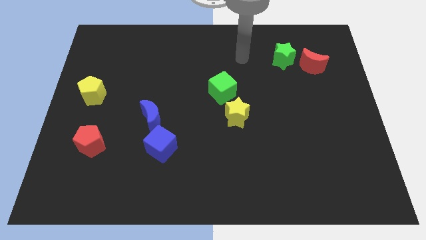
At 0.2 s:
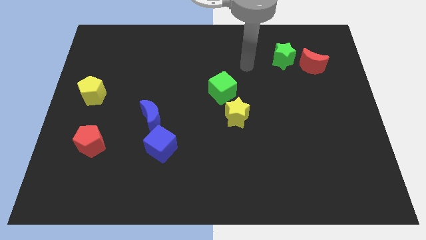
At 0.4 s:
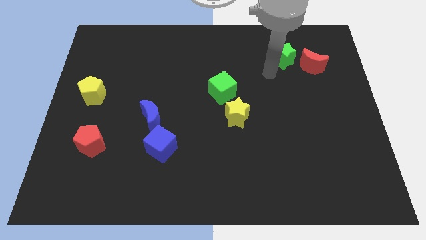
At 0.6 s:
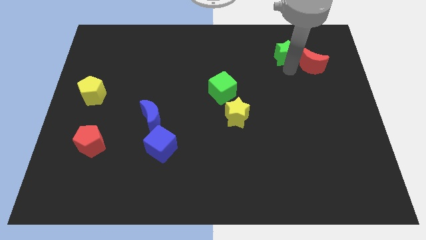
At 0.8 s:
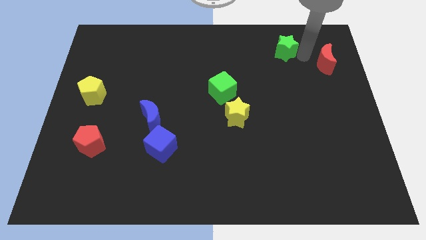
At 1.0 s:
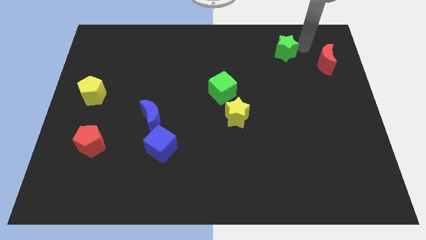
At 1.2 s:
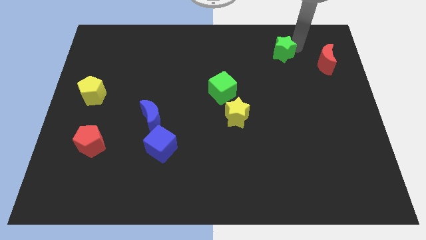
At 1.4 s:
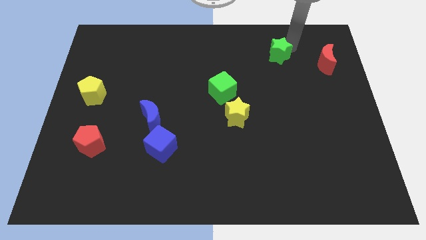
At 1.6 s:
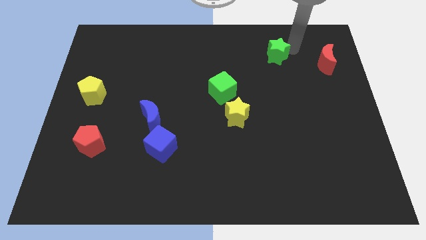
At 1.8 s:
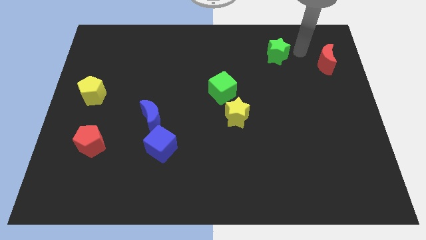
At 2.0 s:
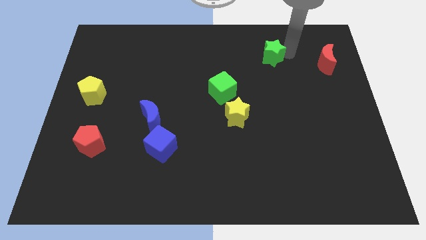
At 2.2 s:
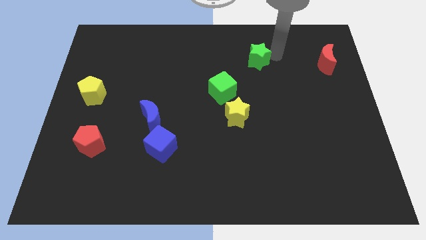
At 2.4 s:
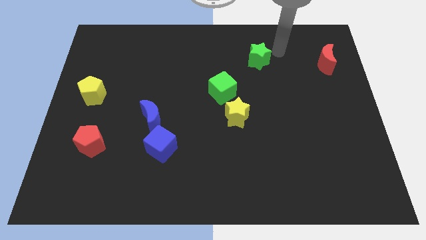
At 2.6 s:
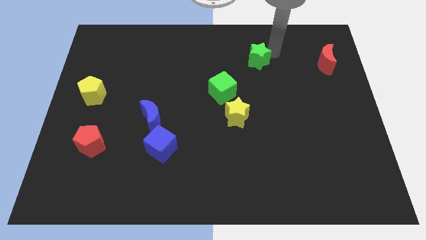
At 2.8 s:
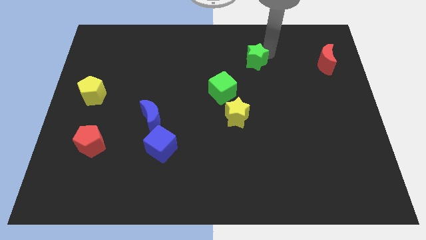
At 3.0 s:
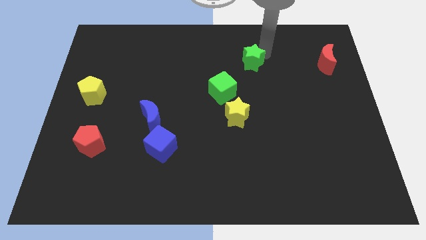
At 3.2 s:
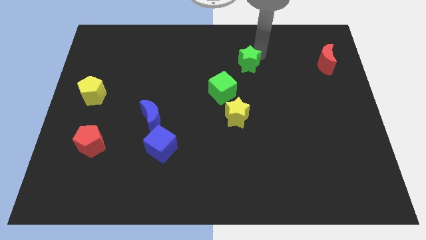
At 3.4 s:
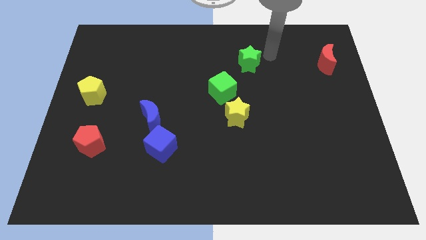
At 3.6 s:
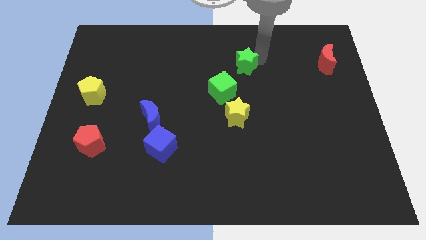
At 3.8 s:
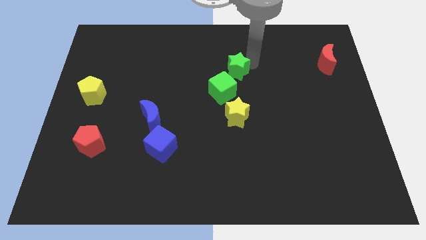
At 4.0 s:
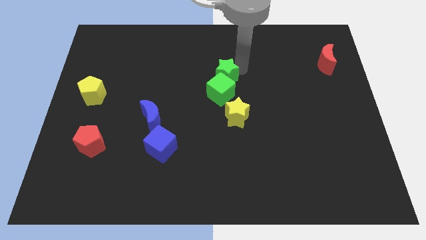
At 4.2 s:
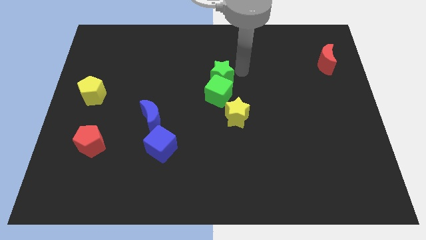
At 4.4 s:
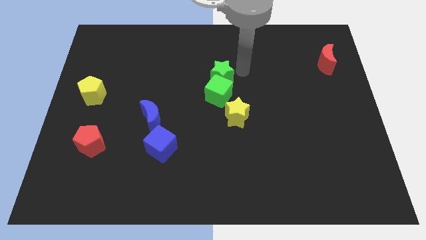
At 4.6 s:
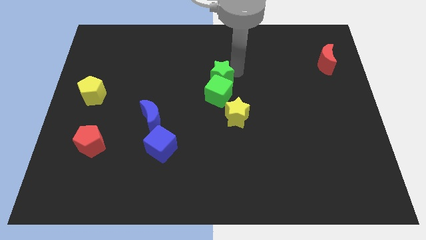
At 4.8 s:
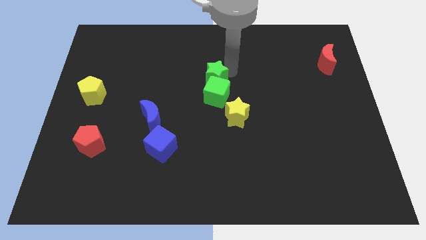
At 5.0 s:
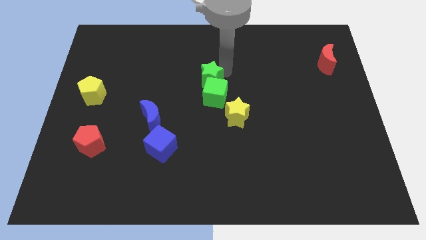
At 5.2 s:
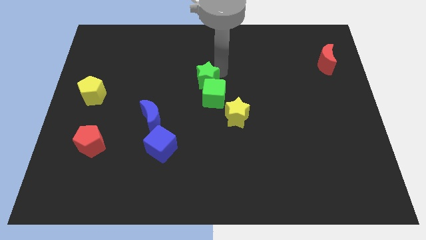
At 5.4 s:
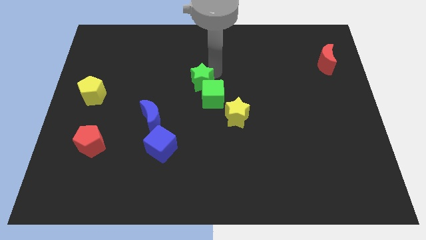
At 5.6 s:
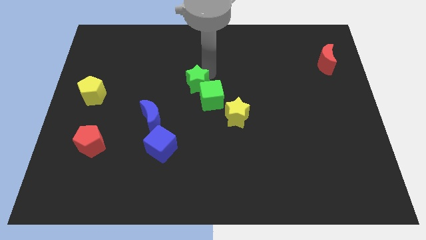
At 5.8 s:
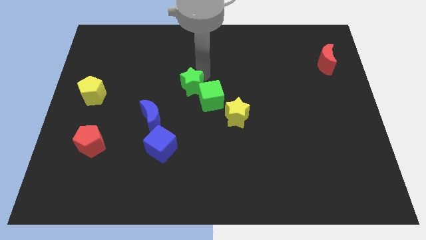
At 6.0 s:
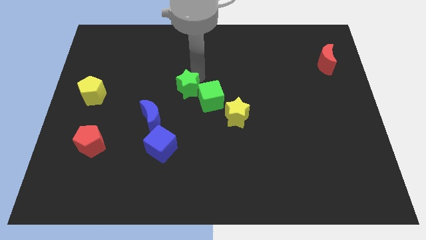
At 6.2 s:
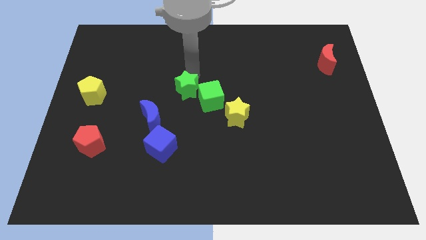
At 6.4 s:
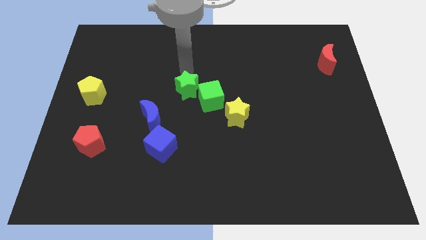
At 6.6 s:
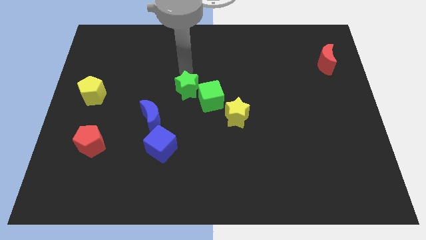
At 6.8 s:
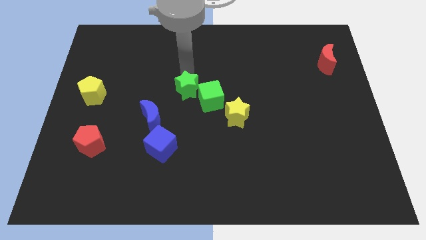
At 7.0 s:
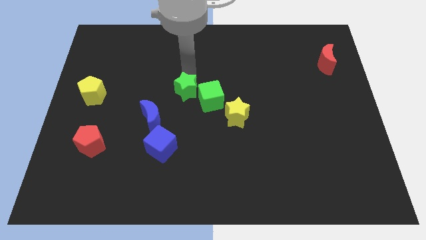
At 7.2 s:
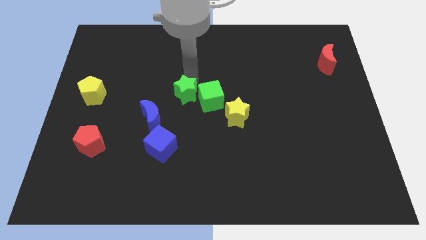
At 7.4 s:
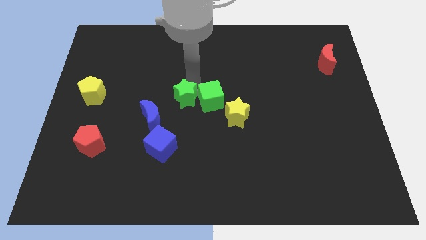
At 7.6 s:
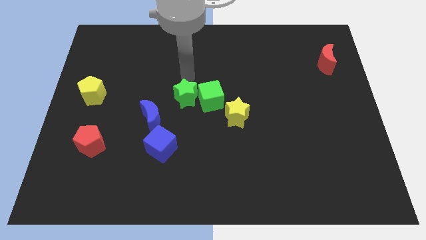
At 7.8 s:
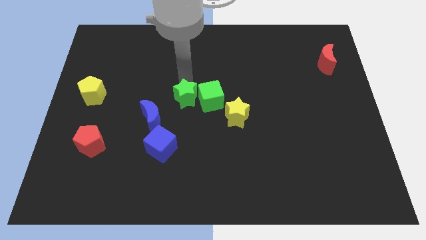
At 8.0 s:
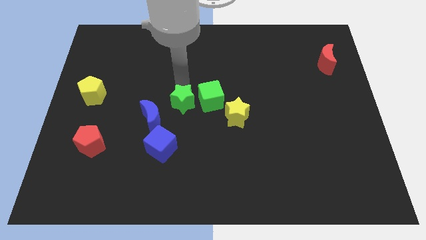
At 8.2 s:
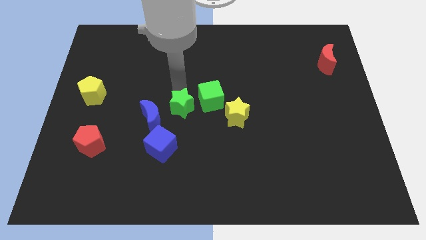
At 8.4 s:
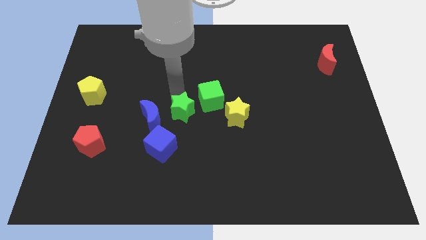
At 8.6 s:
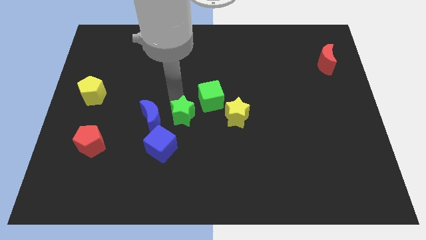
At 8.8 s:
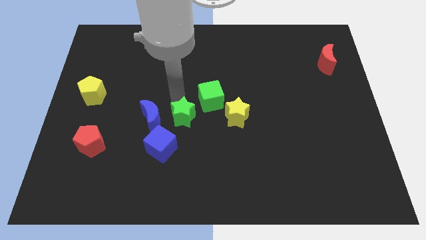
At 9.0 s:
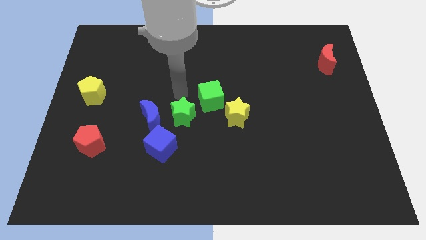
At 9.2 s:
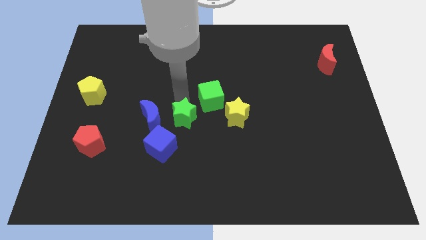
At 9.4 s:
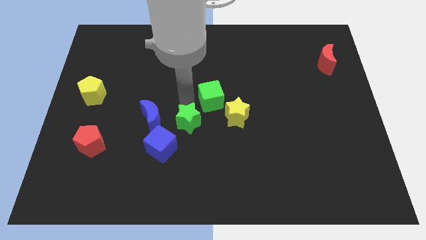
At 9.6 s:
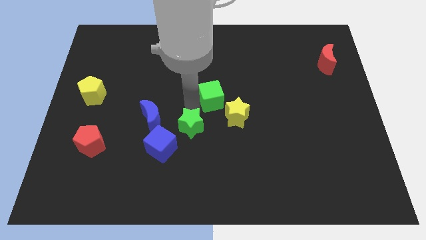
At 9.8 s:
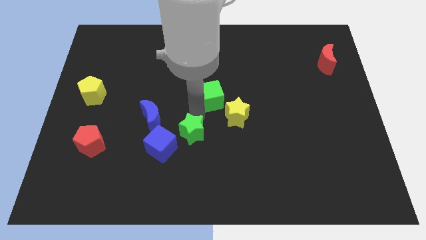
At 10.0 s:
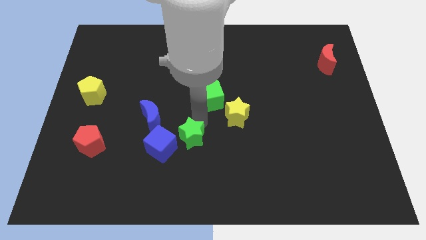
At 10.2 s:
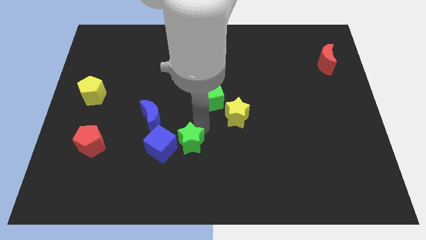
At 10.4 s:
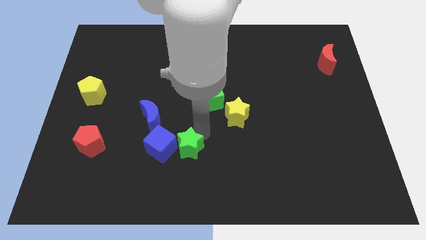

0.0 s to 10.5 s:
move the green star towards the blue cube

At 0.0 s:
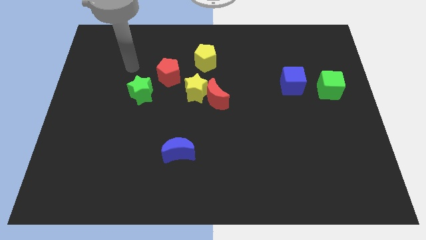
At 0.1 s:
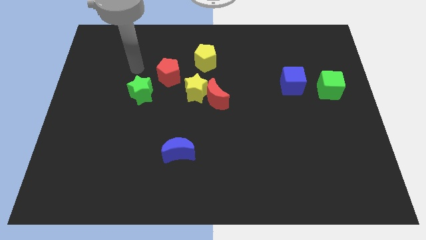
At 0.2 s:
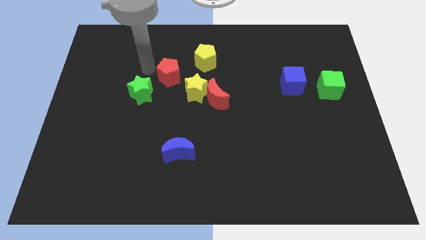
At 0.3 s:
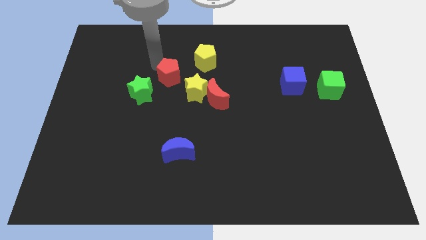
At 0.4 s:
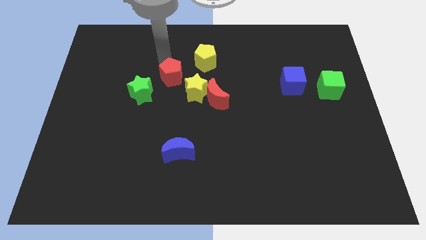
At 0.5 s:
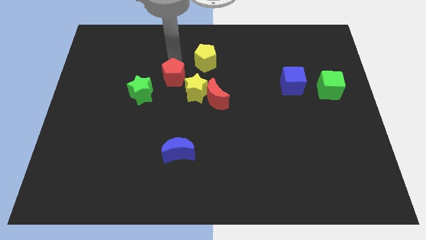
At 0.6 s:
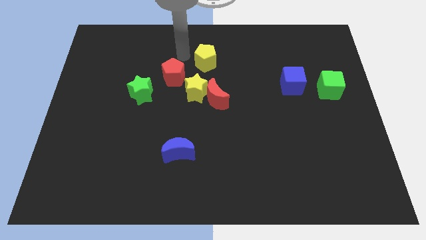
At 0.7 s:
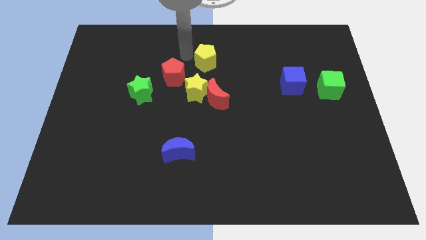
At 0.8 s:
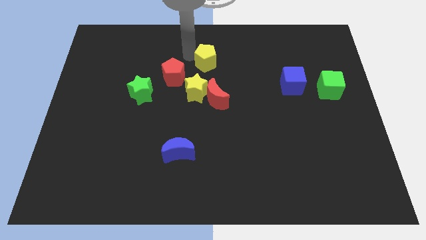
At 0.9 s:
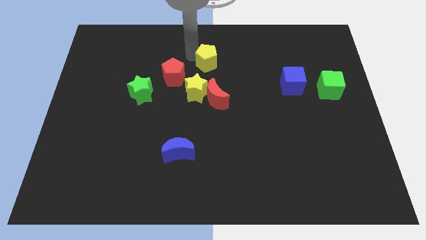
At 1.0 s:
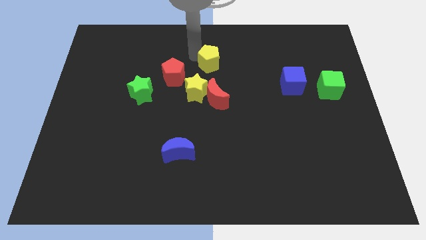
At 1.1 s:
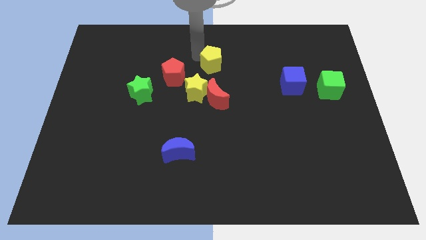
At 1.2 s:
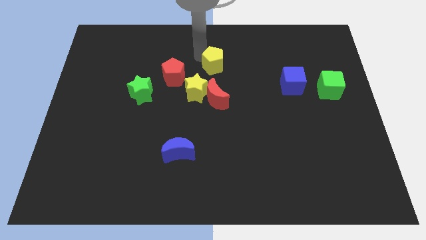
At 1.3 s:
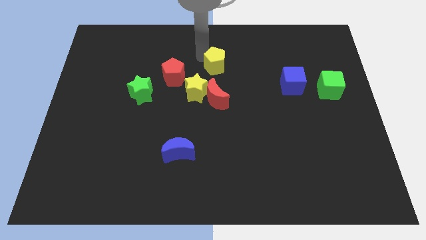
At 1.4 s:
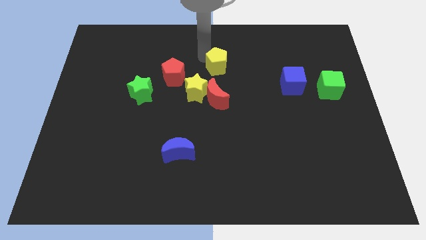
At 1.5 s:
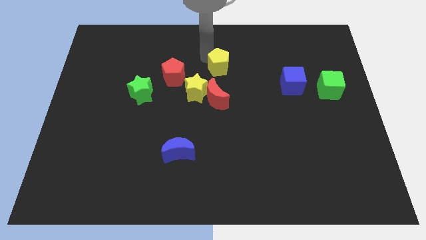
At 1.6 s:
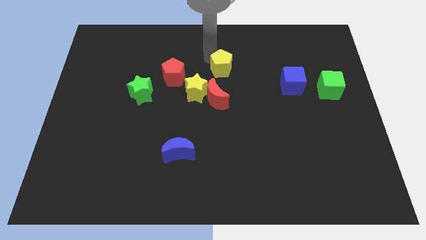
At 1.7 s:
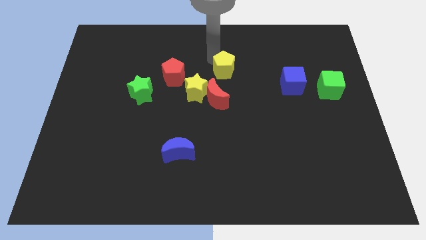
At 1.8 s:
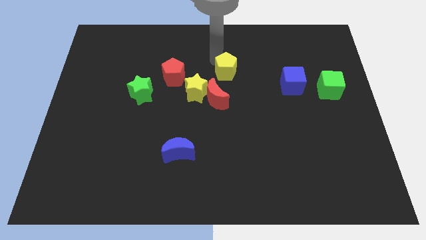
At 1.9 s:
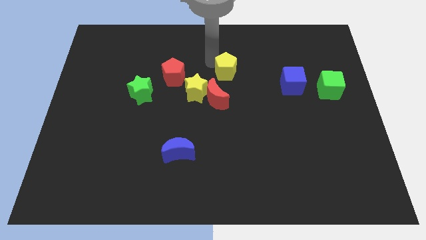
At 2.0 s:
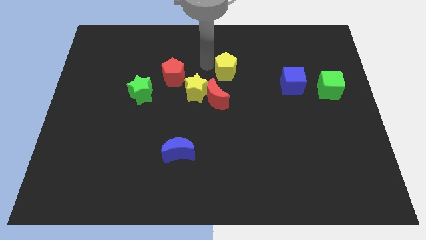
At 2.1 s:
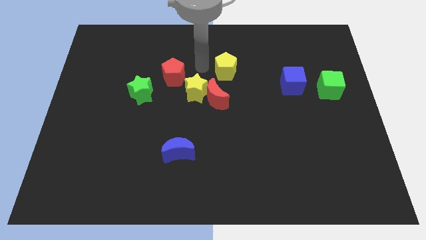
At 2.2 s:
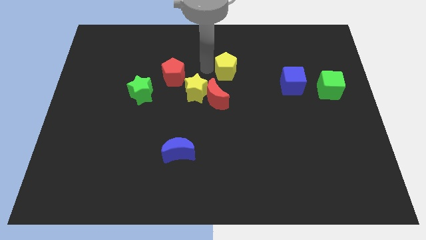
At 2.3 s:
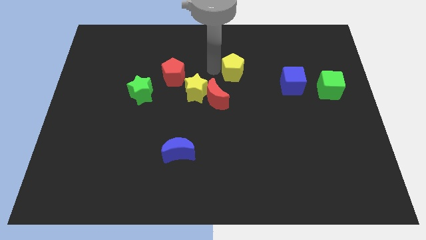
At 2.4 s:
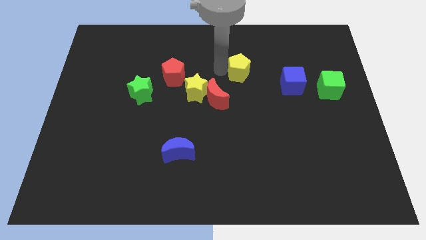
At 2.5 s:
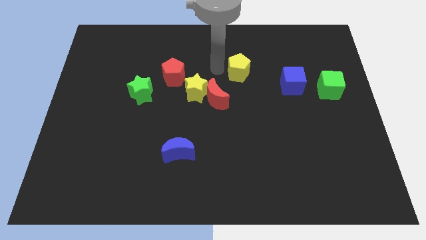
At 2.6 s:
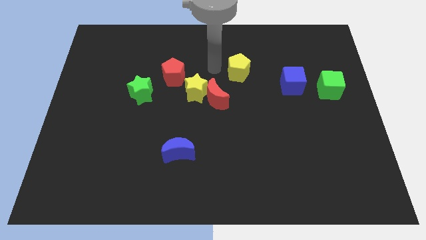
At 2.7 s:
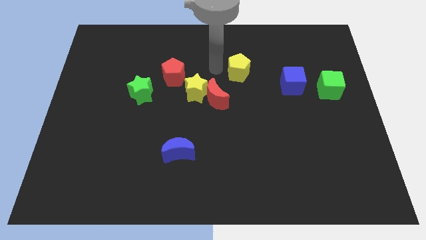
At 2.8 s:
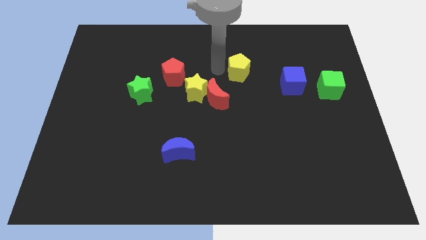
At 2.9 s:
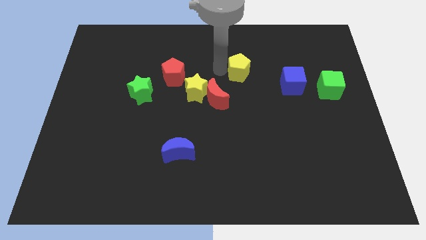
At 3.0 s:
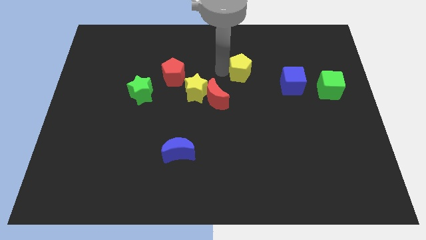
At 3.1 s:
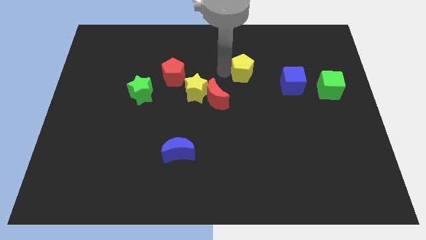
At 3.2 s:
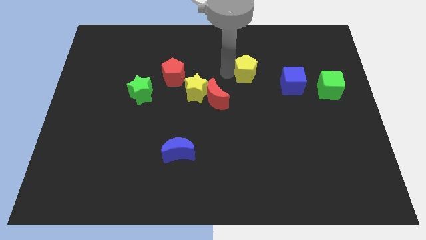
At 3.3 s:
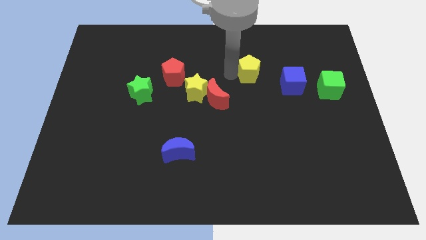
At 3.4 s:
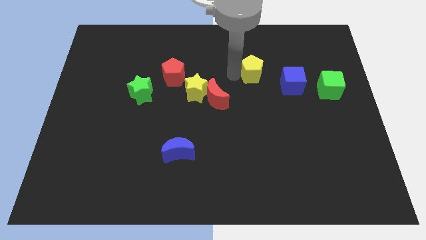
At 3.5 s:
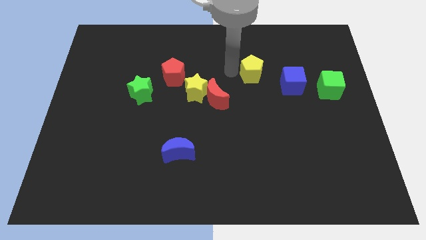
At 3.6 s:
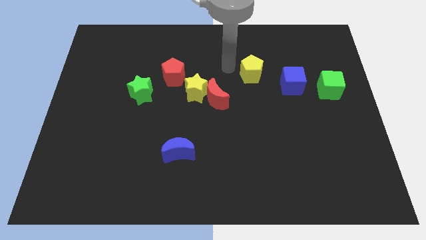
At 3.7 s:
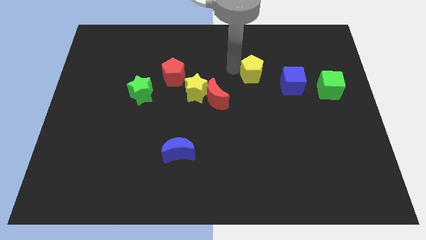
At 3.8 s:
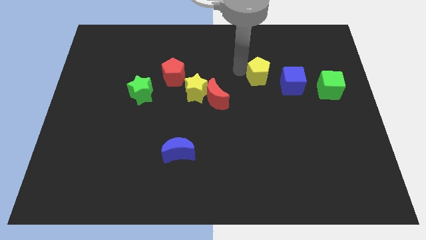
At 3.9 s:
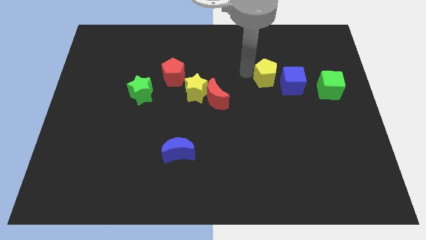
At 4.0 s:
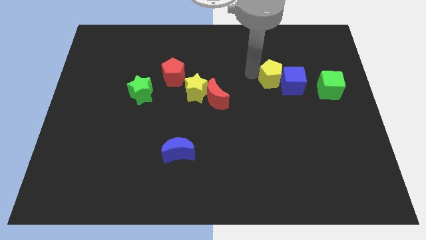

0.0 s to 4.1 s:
push the yellow pentagon to the blue cube
